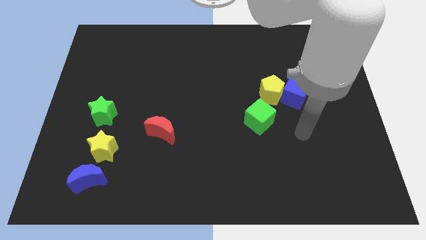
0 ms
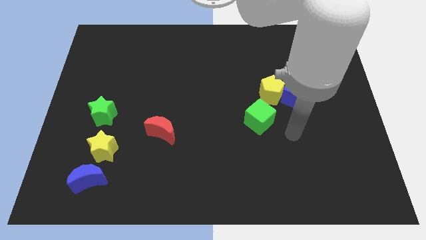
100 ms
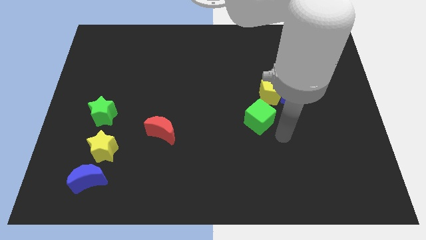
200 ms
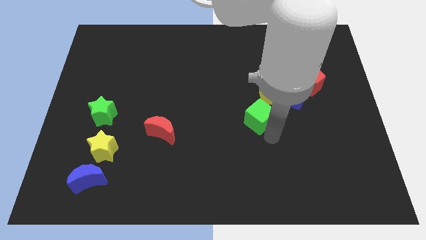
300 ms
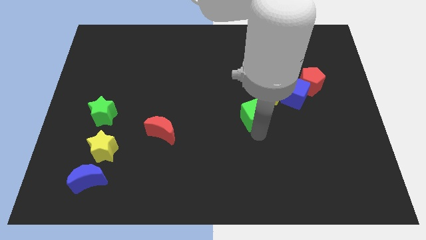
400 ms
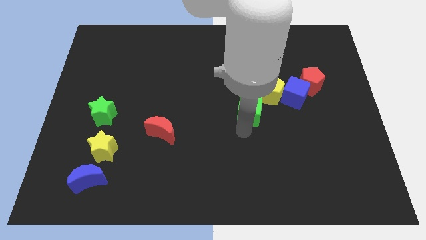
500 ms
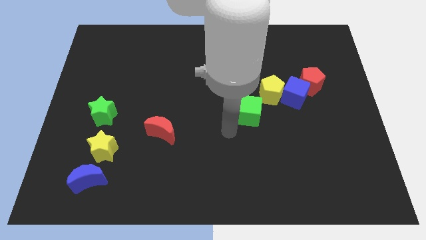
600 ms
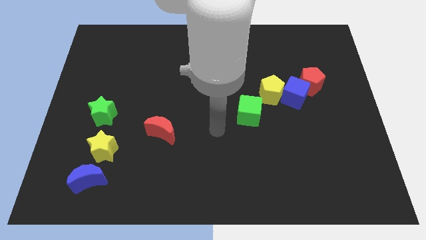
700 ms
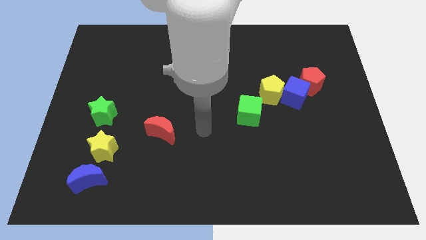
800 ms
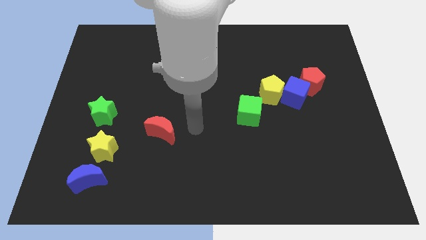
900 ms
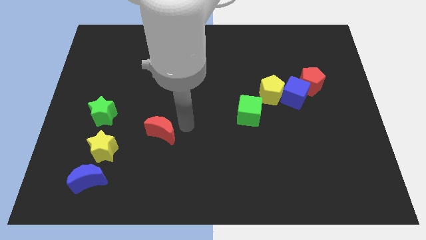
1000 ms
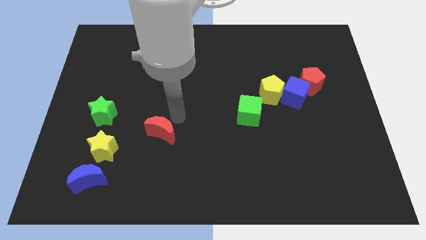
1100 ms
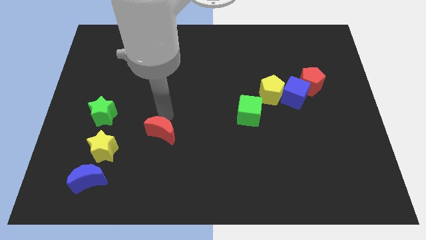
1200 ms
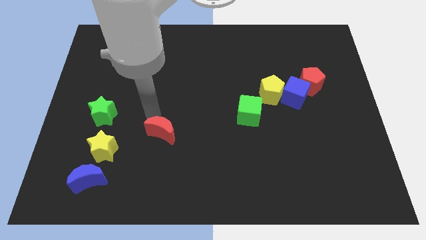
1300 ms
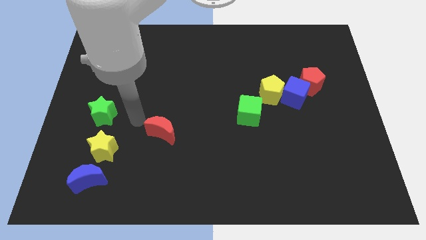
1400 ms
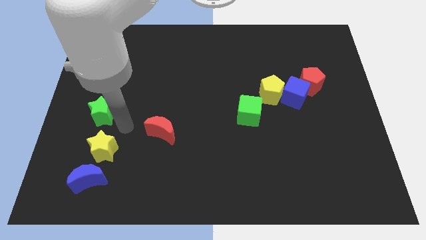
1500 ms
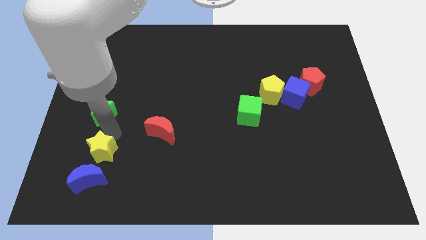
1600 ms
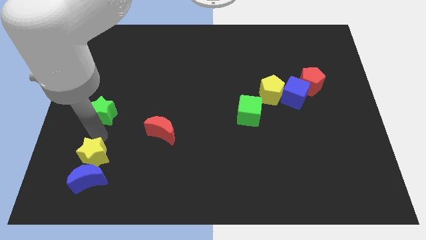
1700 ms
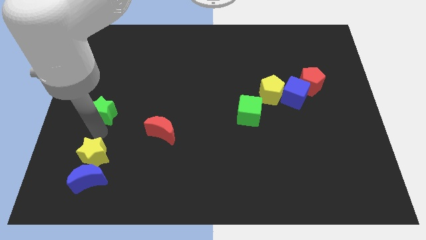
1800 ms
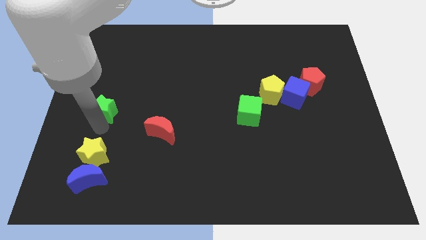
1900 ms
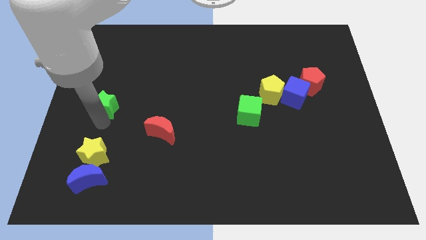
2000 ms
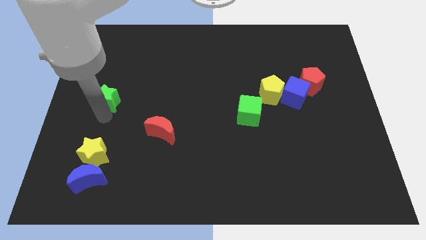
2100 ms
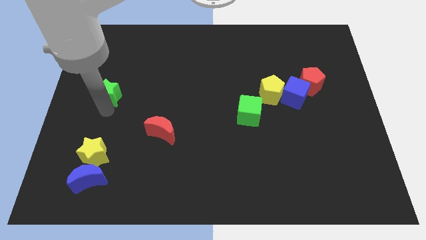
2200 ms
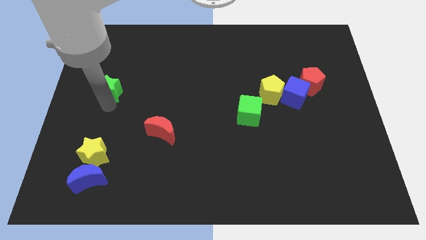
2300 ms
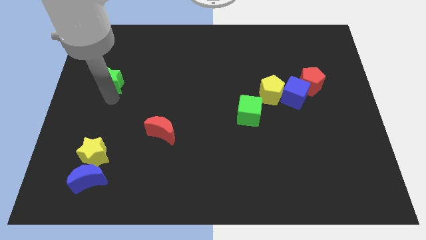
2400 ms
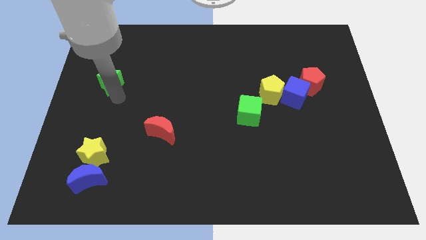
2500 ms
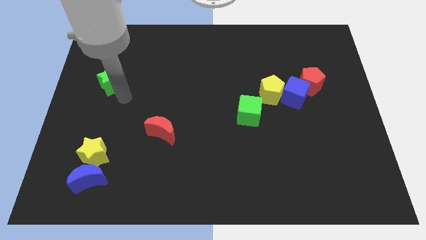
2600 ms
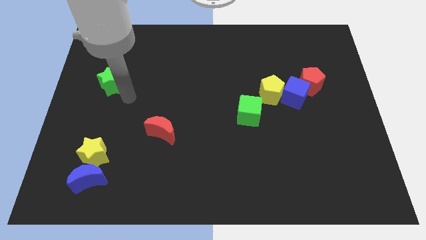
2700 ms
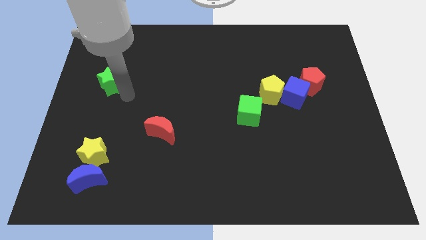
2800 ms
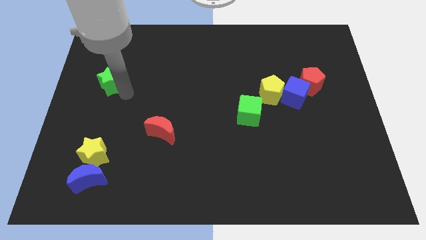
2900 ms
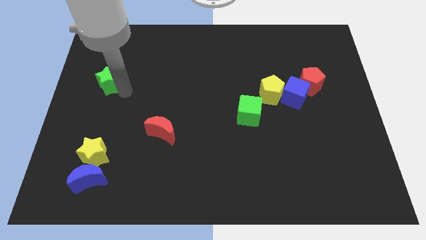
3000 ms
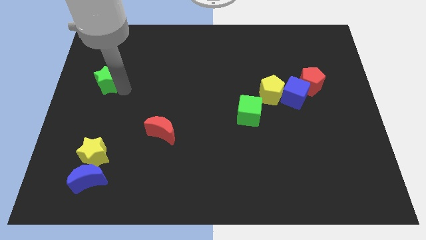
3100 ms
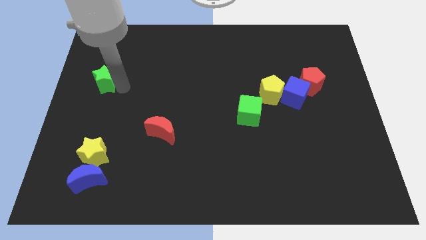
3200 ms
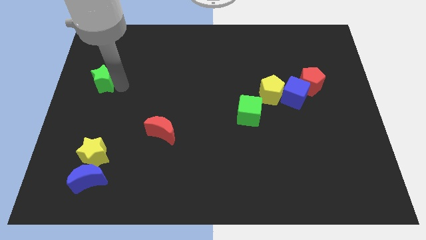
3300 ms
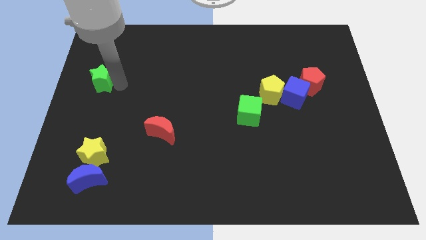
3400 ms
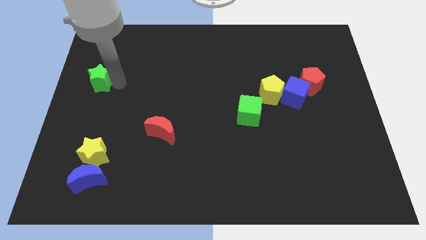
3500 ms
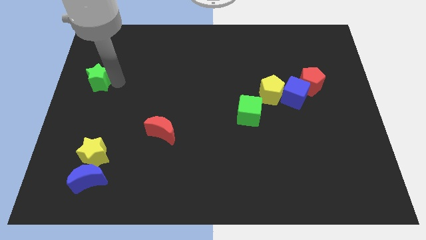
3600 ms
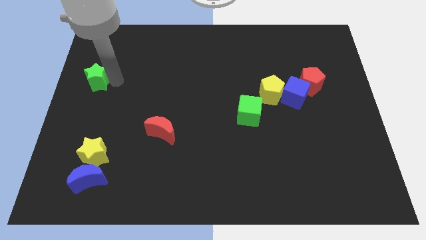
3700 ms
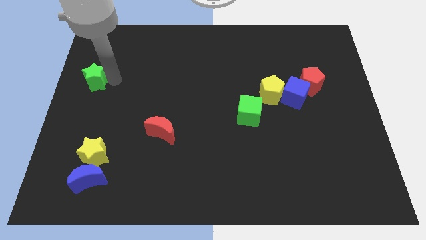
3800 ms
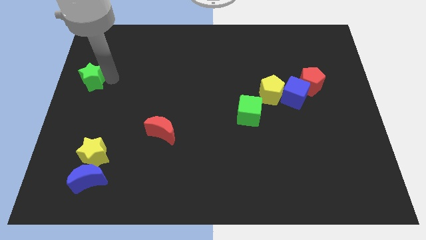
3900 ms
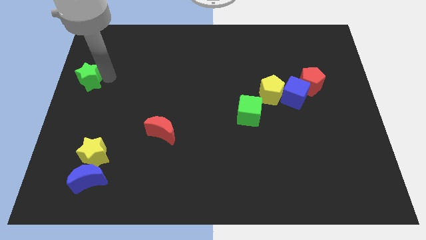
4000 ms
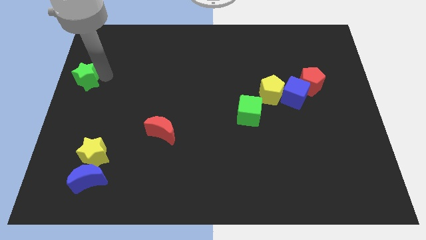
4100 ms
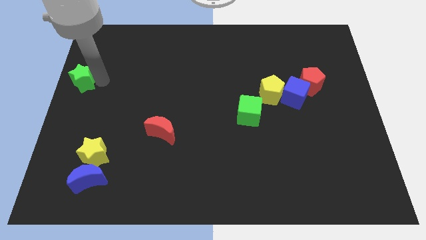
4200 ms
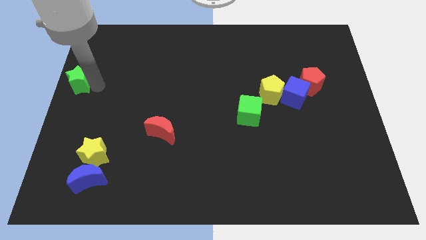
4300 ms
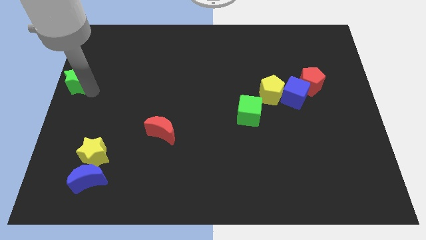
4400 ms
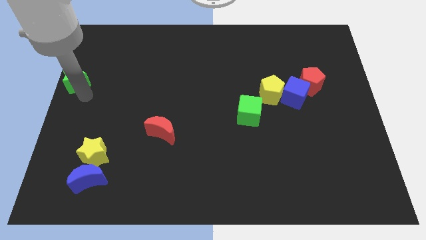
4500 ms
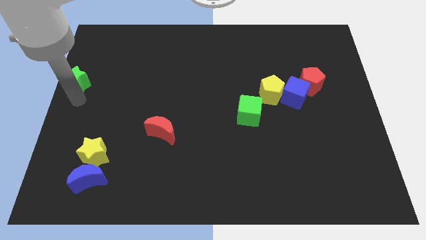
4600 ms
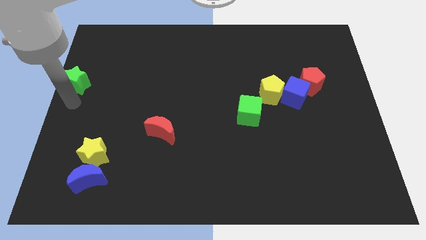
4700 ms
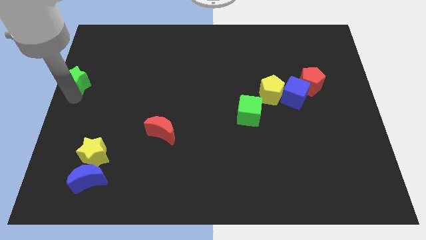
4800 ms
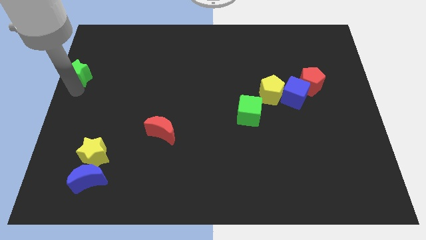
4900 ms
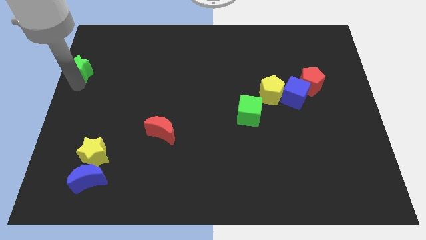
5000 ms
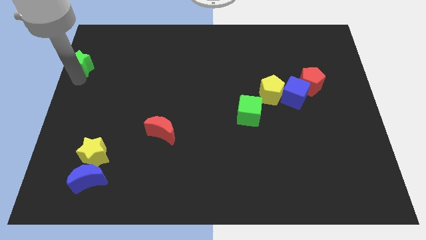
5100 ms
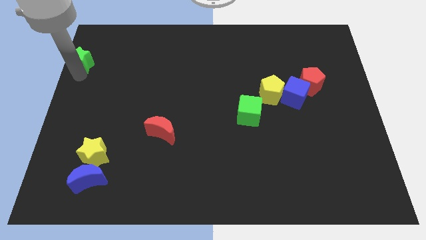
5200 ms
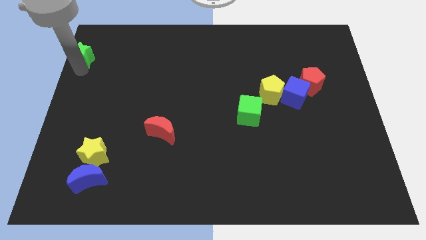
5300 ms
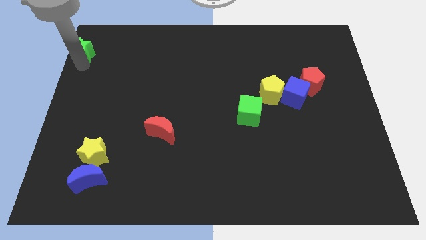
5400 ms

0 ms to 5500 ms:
move the green star to the top left corner

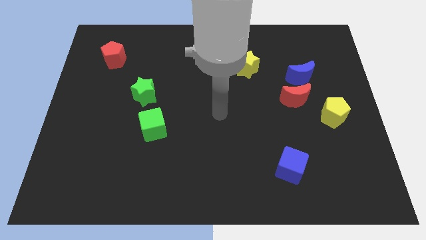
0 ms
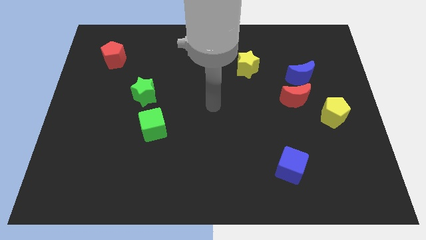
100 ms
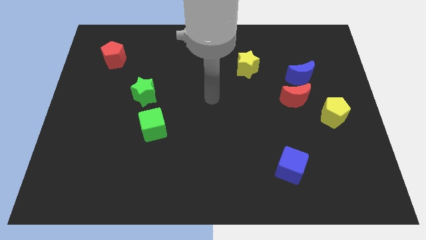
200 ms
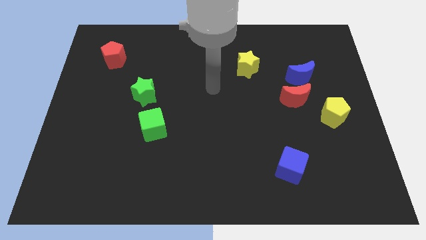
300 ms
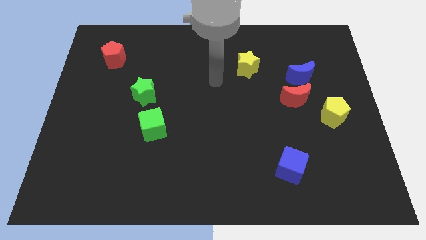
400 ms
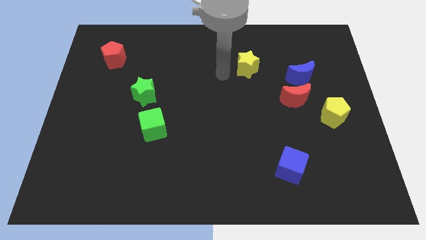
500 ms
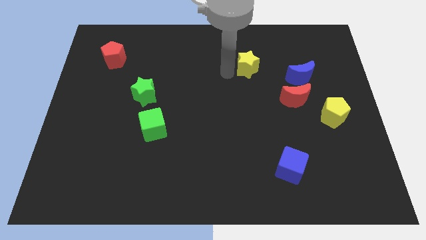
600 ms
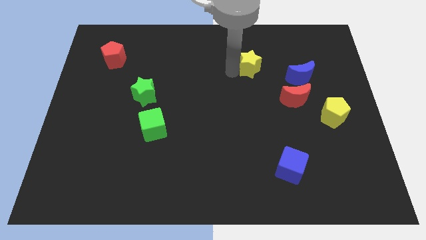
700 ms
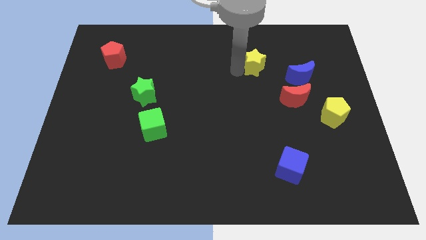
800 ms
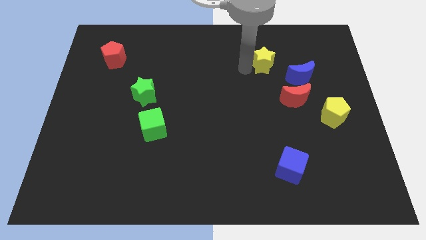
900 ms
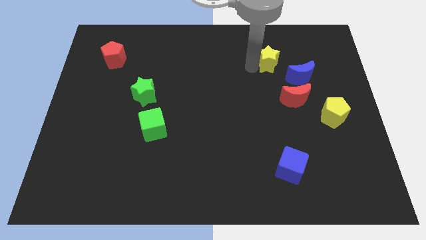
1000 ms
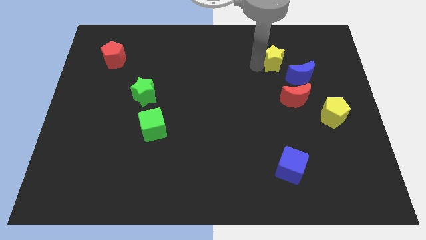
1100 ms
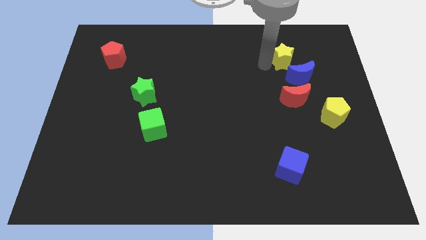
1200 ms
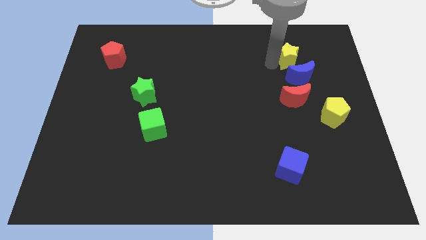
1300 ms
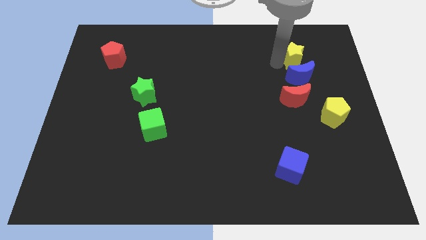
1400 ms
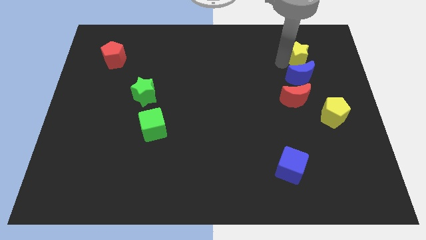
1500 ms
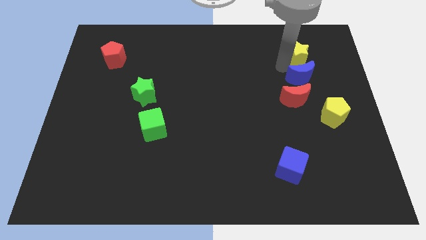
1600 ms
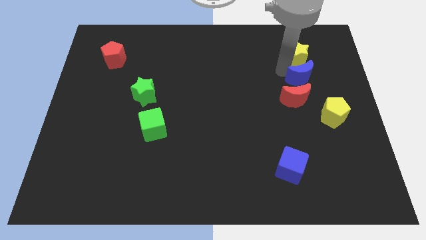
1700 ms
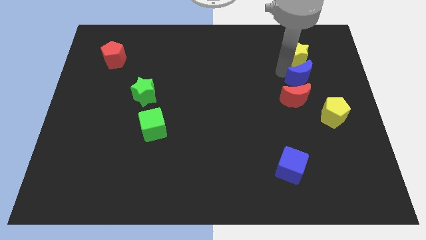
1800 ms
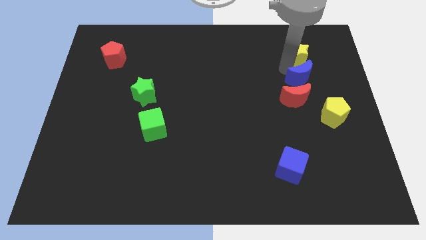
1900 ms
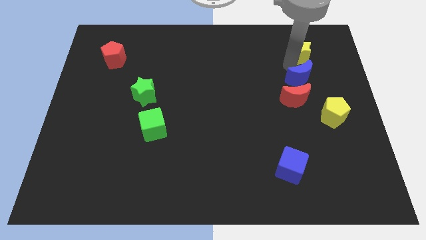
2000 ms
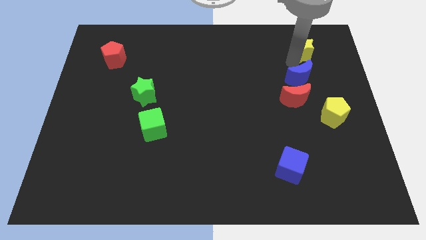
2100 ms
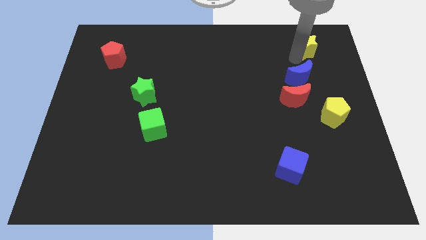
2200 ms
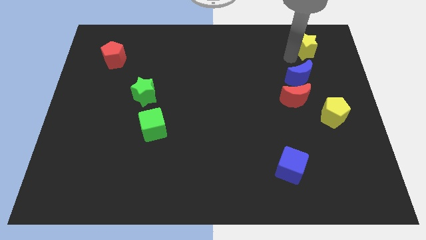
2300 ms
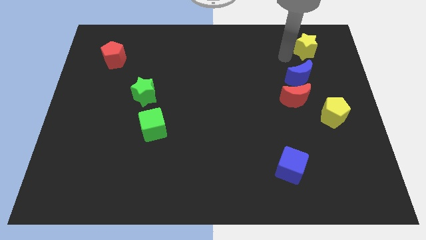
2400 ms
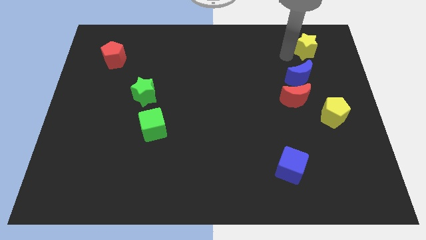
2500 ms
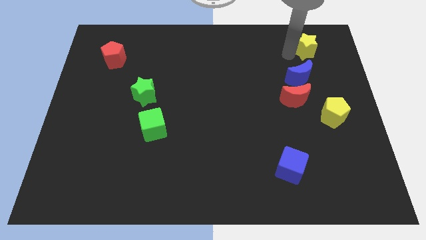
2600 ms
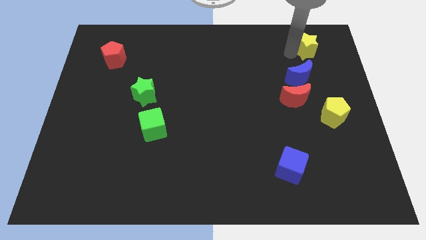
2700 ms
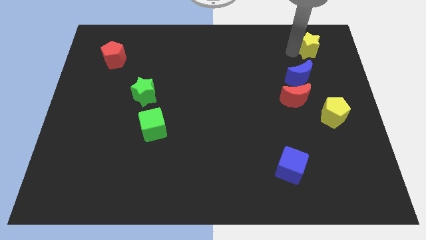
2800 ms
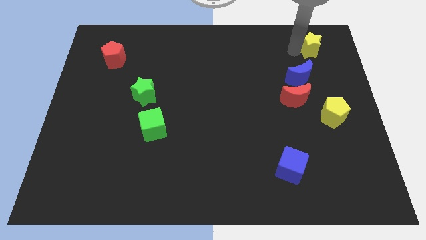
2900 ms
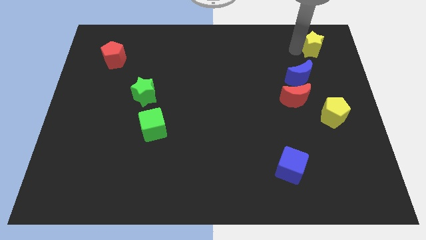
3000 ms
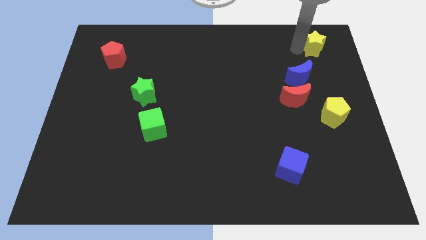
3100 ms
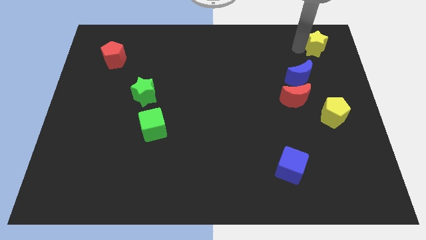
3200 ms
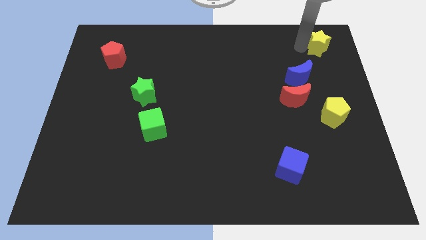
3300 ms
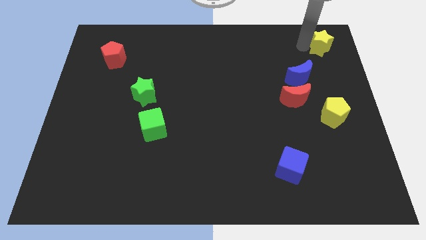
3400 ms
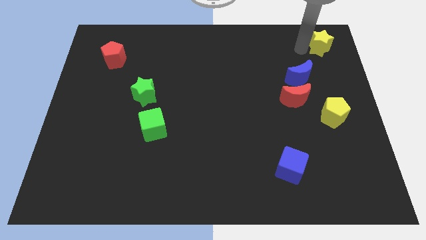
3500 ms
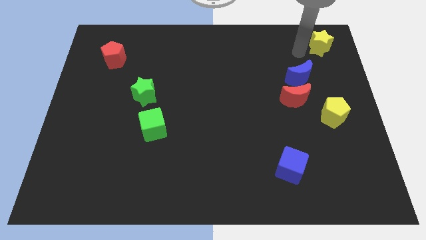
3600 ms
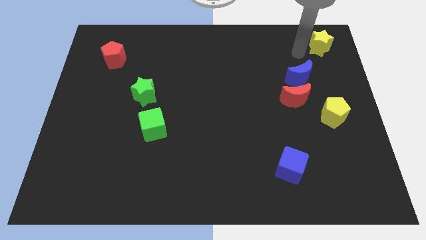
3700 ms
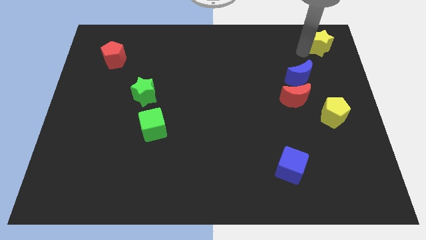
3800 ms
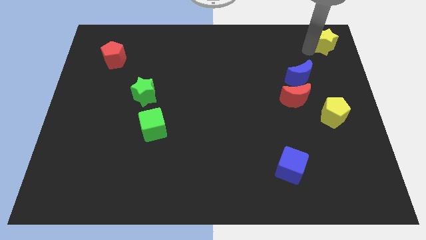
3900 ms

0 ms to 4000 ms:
slide the yellow star to the top right
